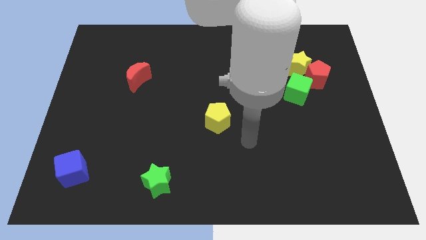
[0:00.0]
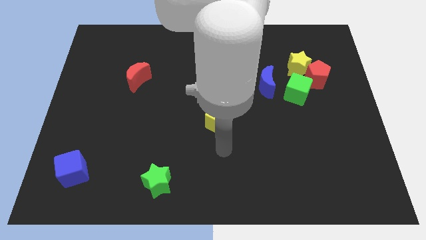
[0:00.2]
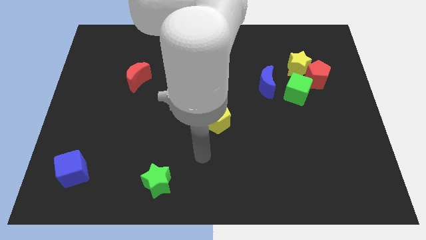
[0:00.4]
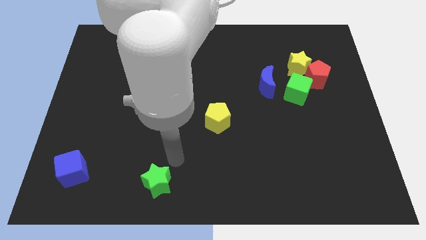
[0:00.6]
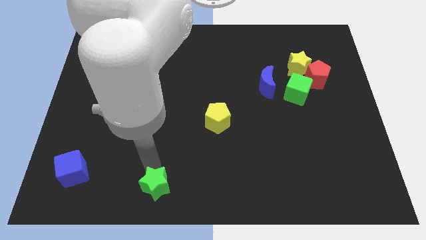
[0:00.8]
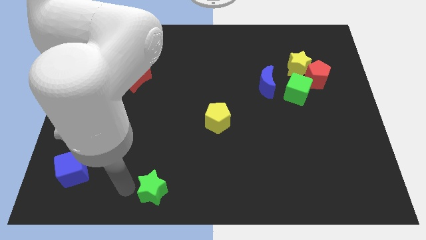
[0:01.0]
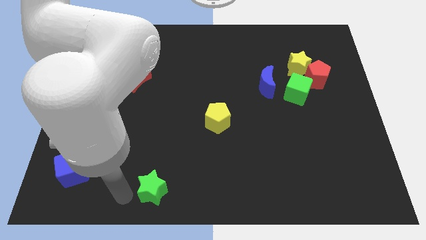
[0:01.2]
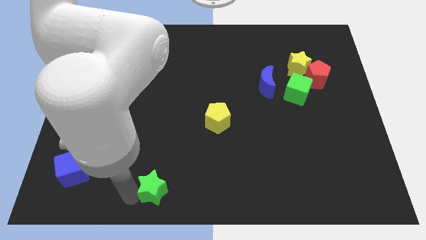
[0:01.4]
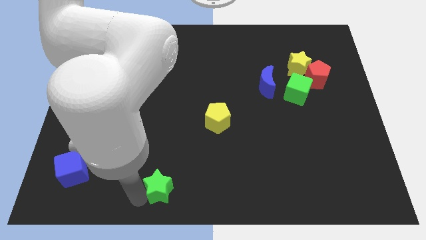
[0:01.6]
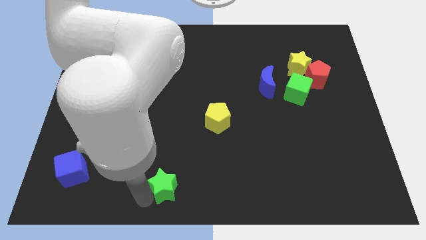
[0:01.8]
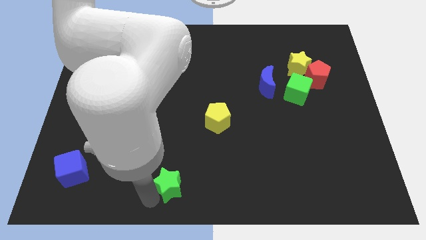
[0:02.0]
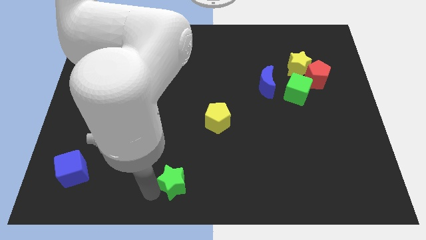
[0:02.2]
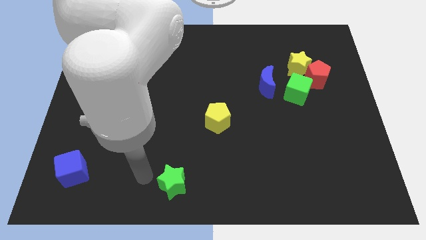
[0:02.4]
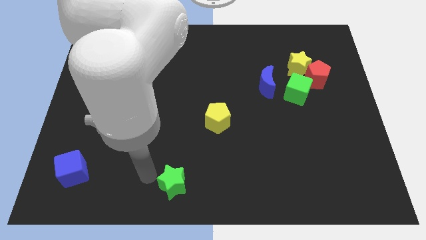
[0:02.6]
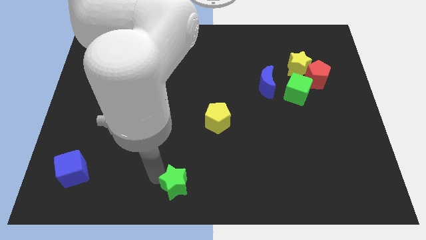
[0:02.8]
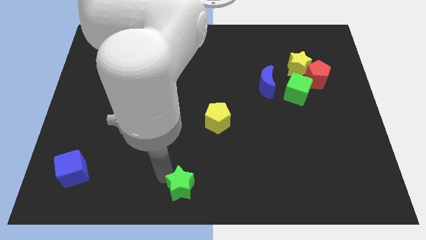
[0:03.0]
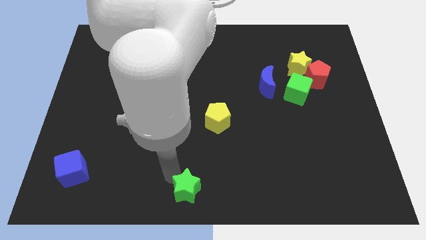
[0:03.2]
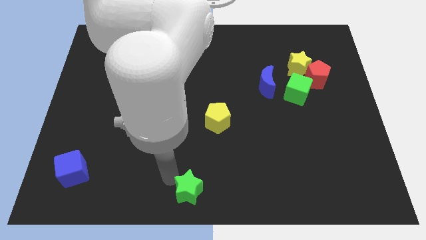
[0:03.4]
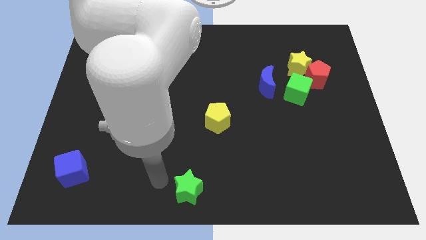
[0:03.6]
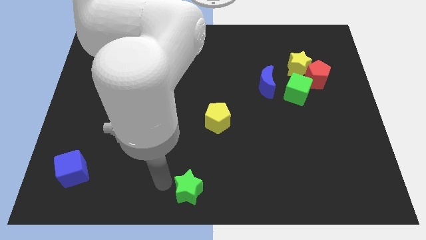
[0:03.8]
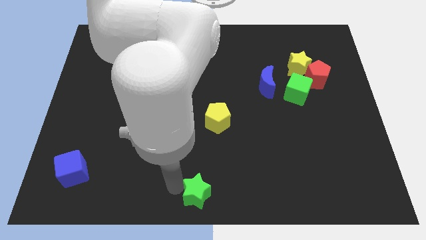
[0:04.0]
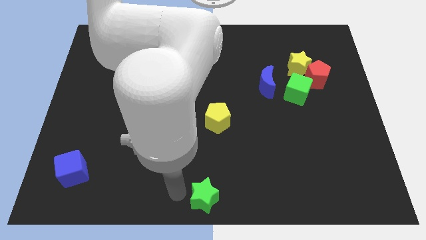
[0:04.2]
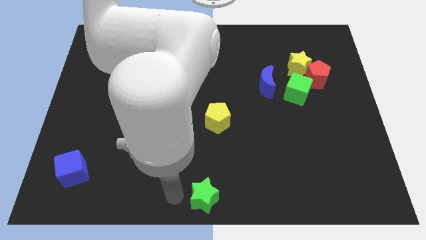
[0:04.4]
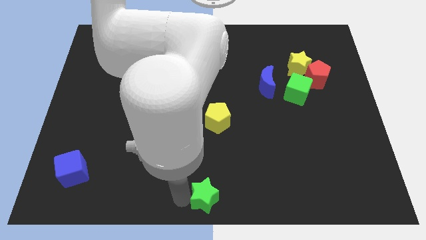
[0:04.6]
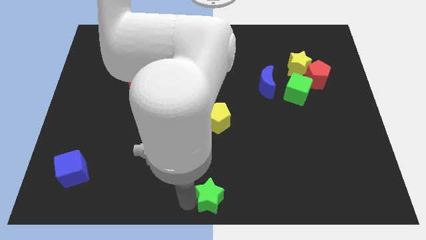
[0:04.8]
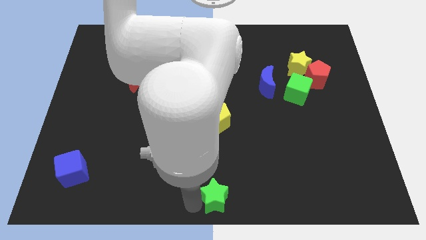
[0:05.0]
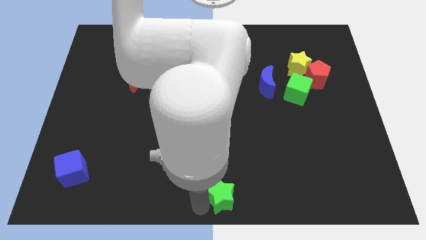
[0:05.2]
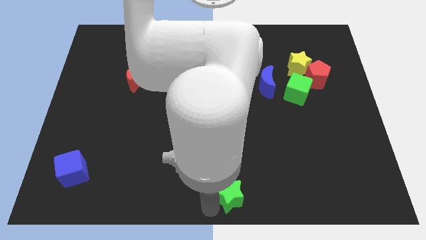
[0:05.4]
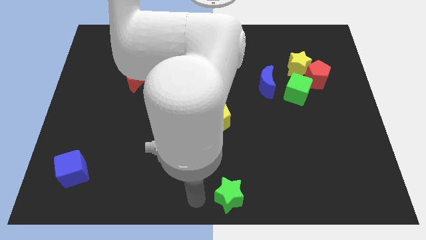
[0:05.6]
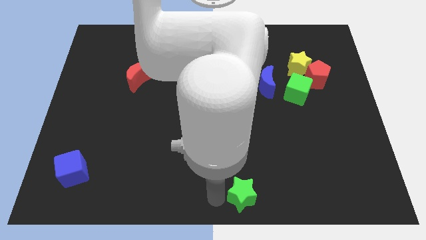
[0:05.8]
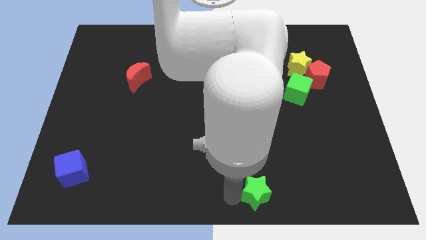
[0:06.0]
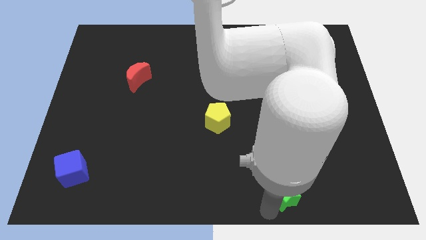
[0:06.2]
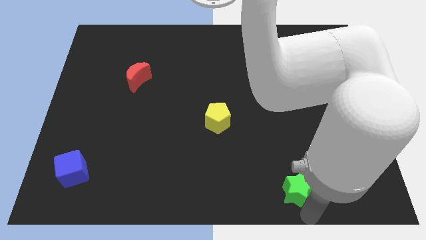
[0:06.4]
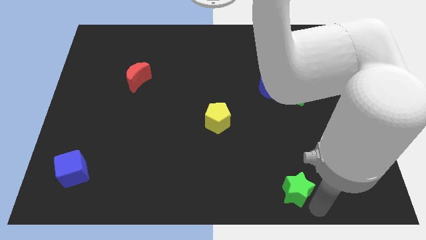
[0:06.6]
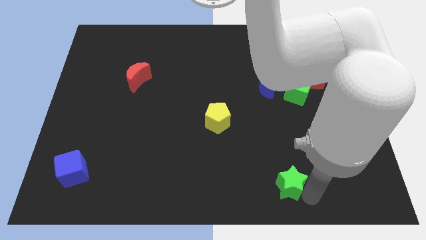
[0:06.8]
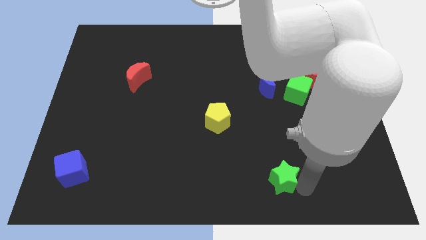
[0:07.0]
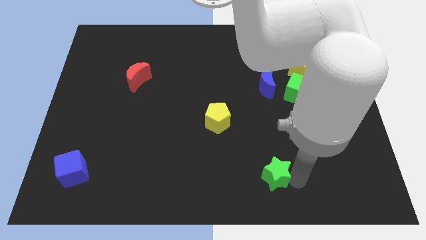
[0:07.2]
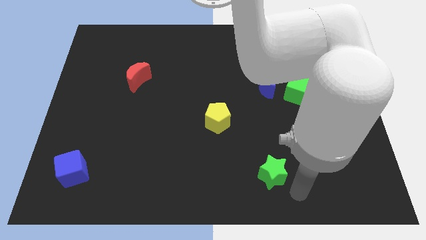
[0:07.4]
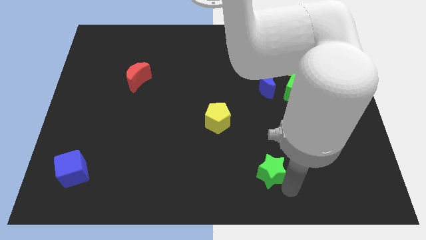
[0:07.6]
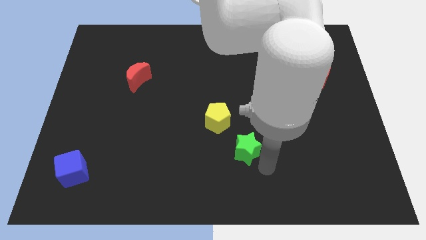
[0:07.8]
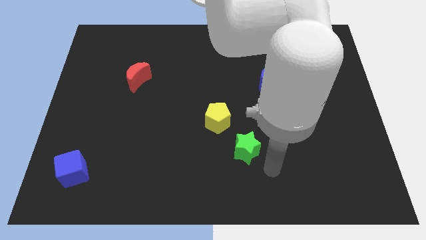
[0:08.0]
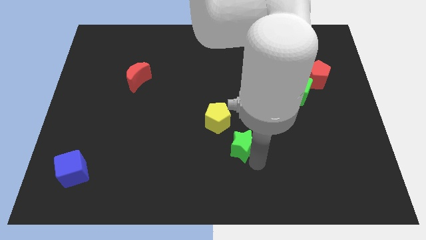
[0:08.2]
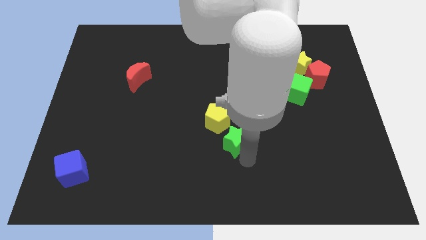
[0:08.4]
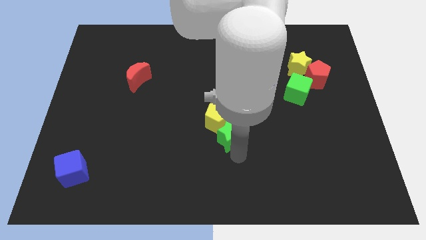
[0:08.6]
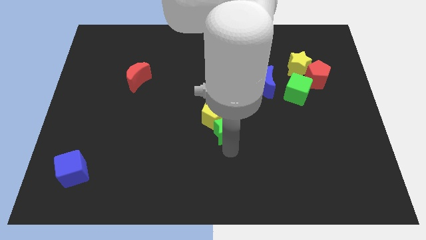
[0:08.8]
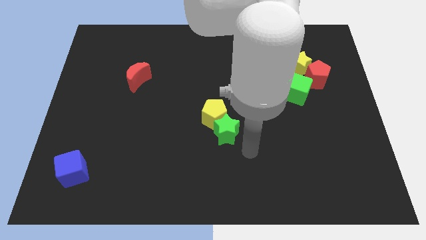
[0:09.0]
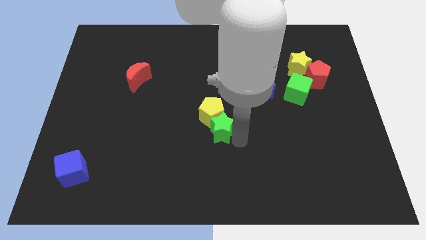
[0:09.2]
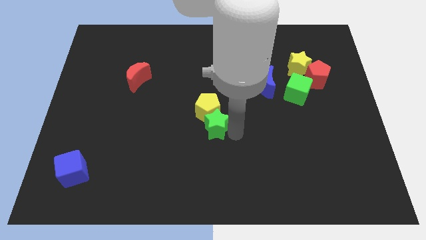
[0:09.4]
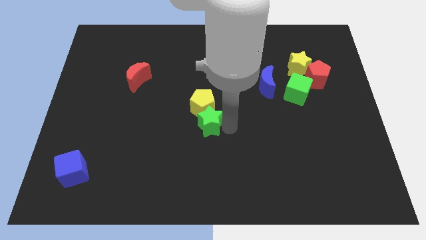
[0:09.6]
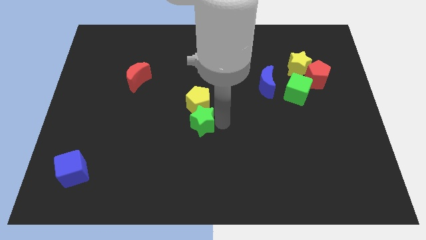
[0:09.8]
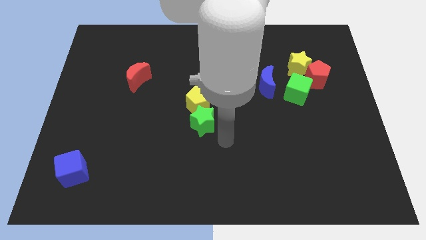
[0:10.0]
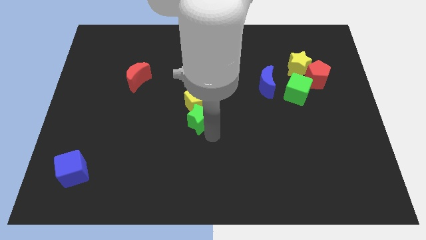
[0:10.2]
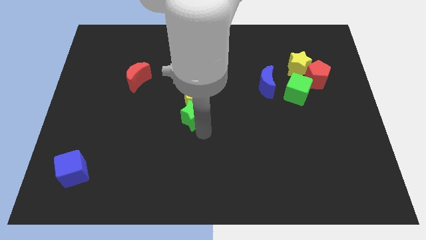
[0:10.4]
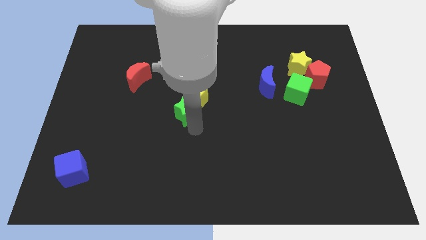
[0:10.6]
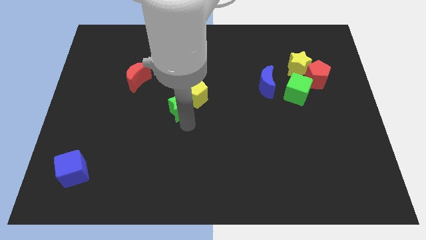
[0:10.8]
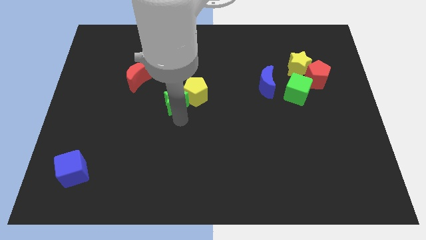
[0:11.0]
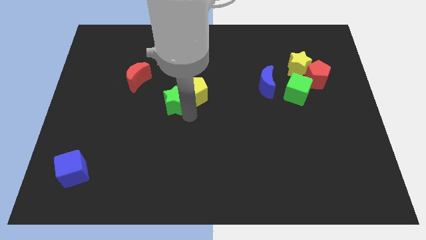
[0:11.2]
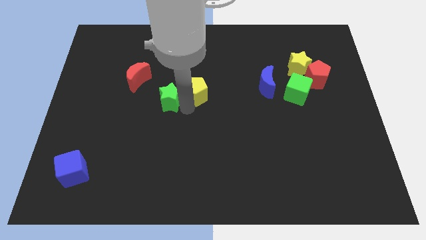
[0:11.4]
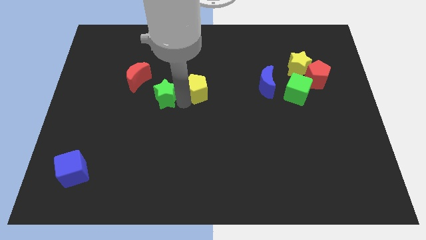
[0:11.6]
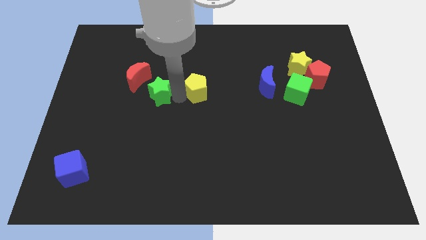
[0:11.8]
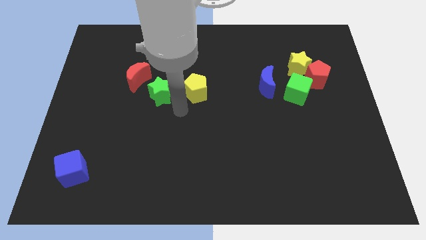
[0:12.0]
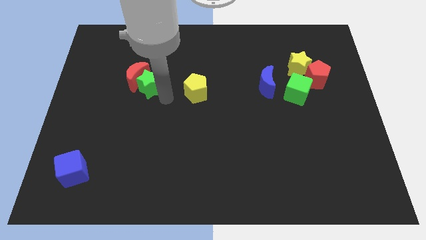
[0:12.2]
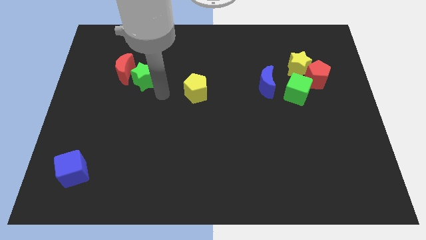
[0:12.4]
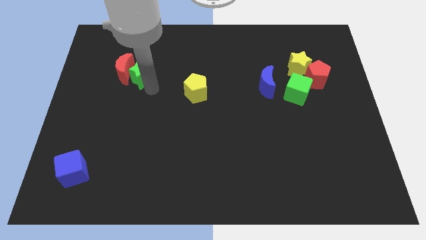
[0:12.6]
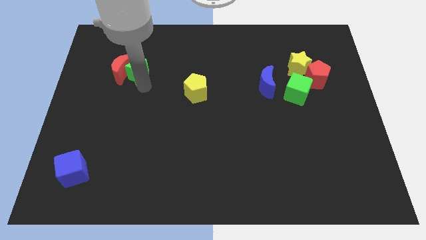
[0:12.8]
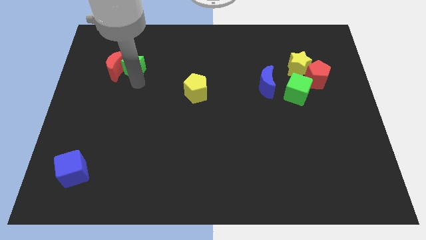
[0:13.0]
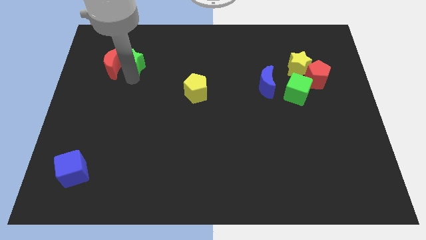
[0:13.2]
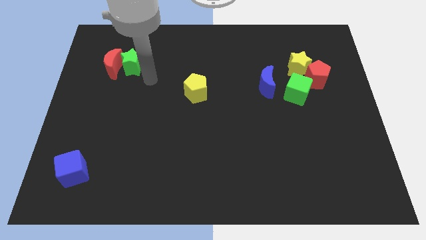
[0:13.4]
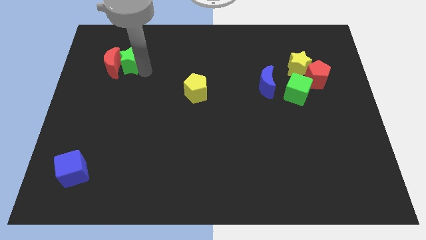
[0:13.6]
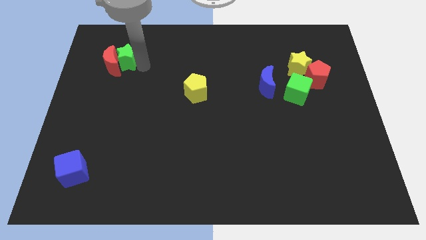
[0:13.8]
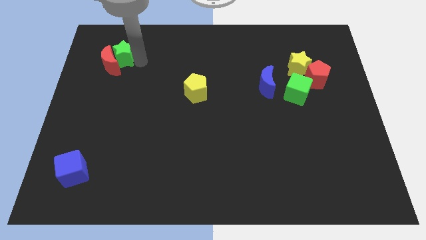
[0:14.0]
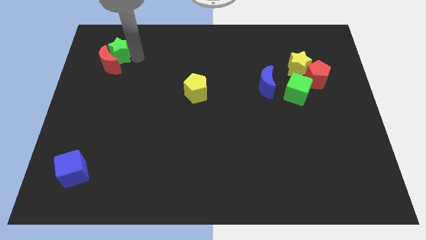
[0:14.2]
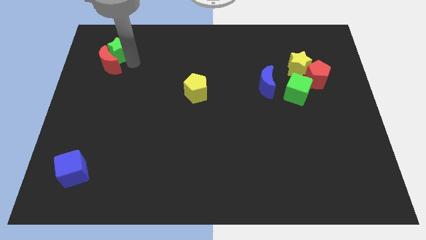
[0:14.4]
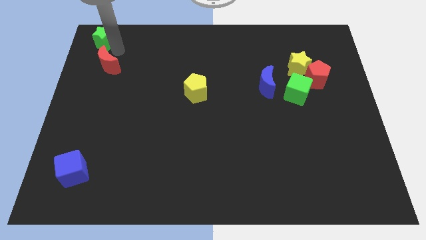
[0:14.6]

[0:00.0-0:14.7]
slide the green star to the top left corner

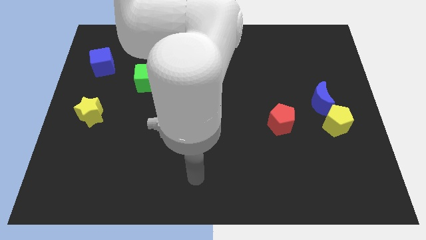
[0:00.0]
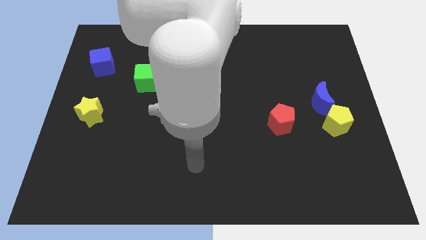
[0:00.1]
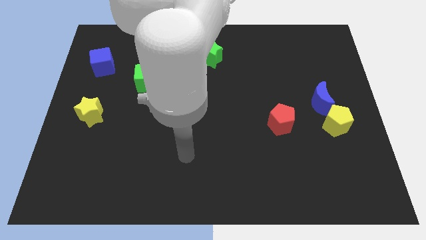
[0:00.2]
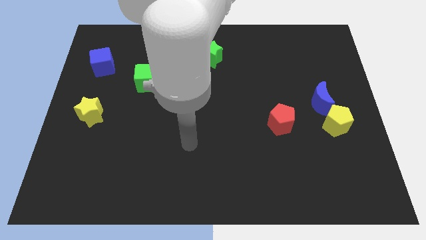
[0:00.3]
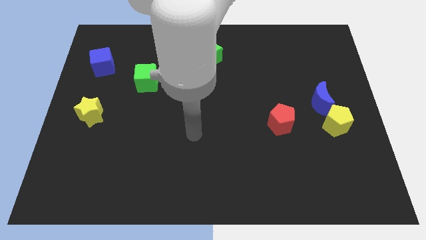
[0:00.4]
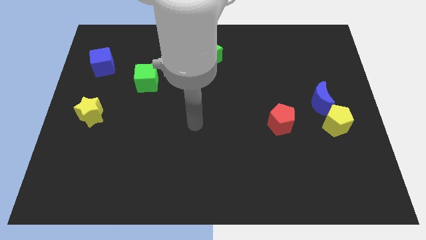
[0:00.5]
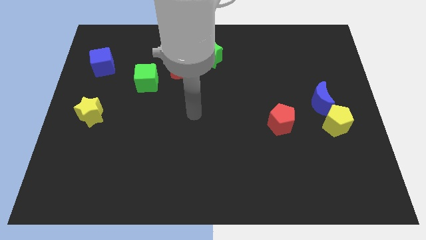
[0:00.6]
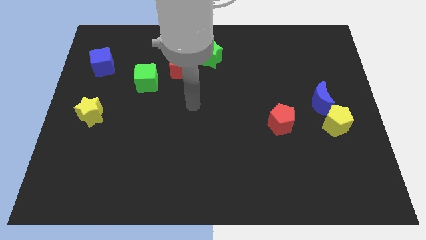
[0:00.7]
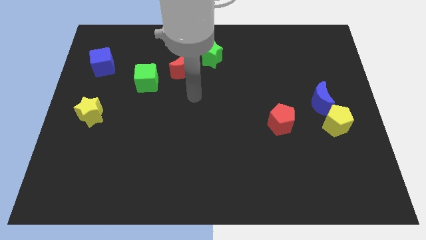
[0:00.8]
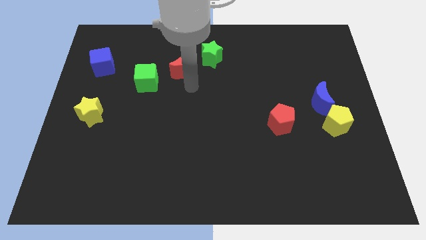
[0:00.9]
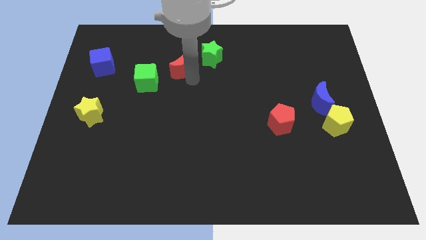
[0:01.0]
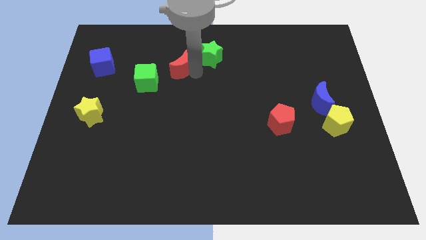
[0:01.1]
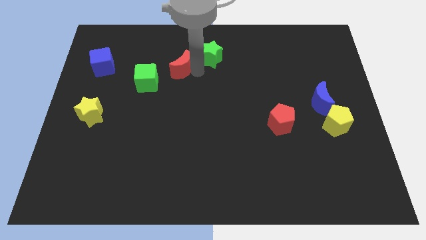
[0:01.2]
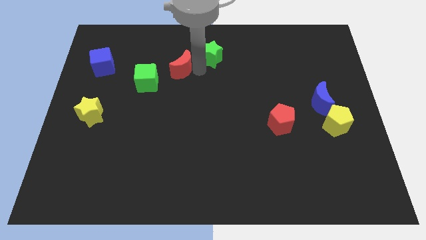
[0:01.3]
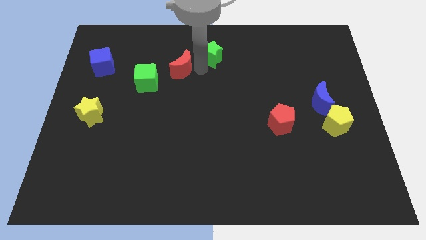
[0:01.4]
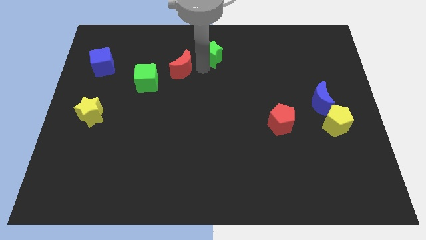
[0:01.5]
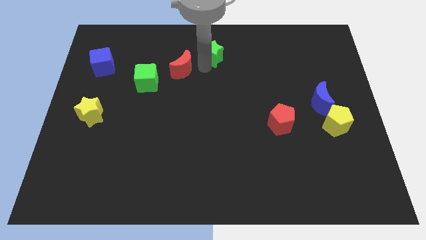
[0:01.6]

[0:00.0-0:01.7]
move the green star to the top side
